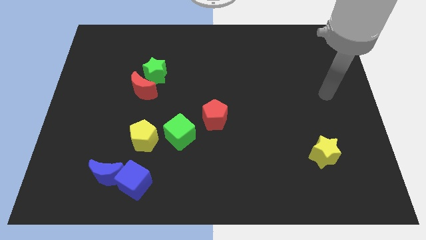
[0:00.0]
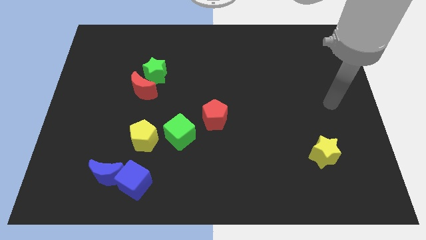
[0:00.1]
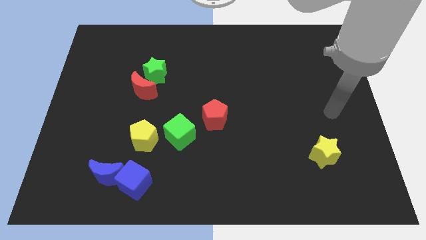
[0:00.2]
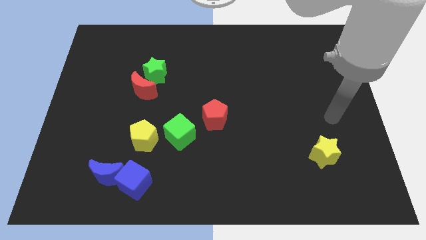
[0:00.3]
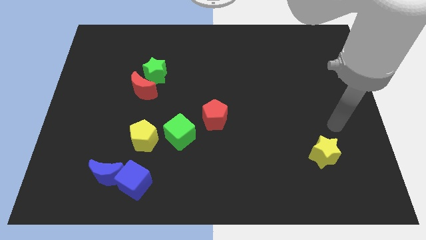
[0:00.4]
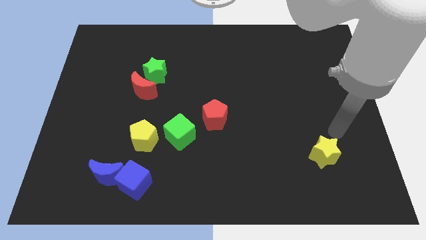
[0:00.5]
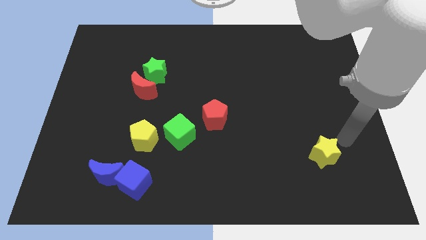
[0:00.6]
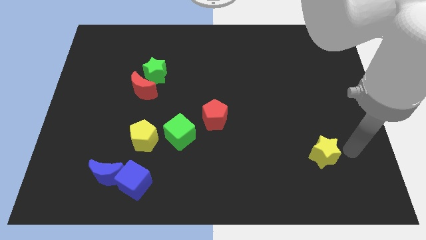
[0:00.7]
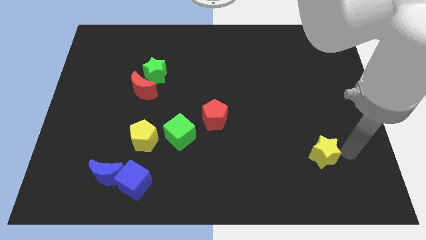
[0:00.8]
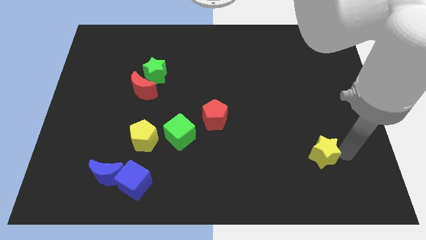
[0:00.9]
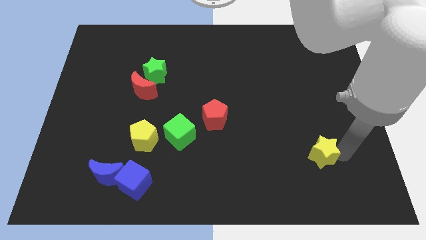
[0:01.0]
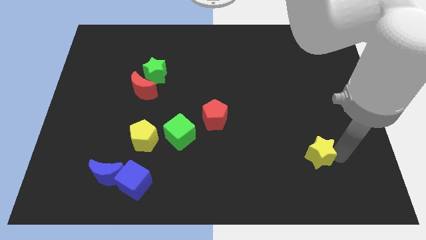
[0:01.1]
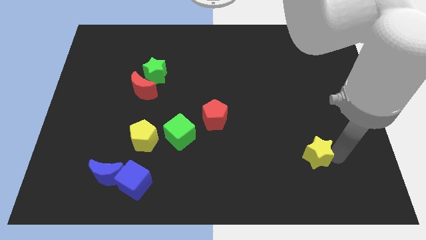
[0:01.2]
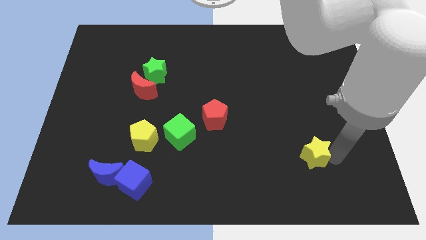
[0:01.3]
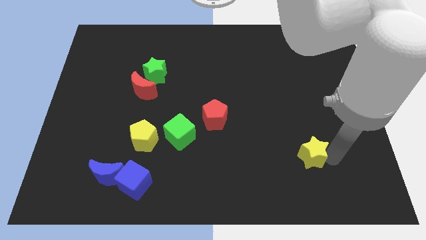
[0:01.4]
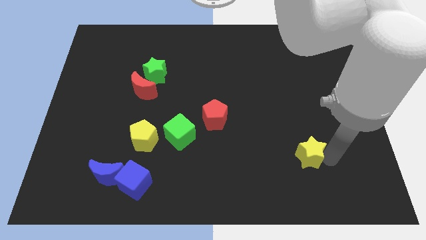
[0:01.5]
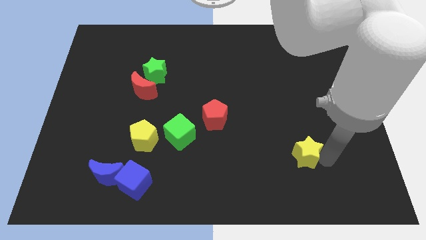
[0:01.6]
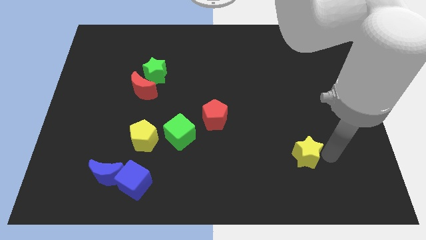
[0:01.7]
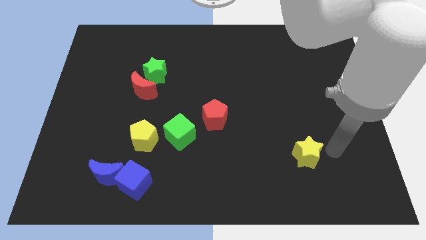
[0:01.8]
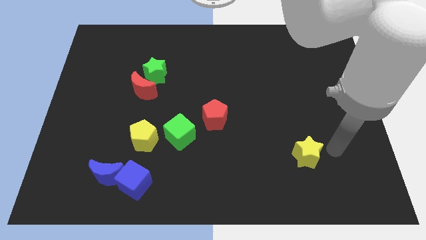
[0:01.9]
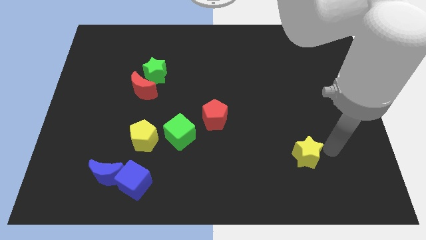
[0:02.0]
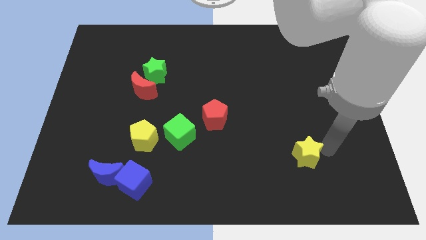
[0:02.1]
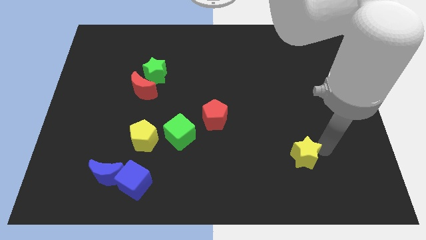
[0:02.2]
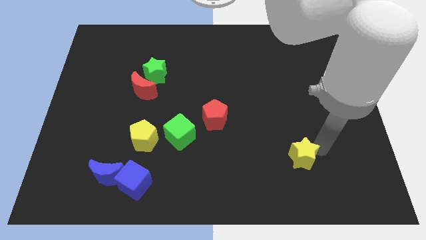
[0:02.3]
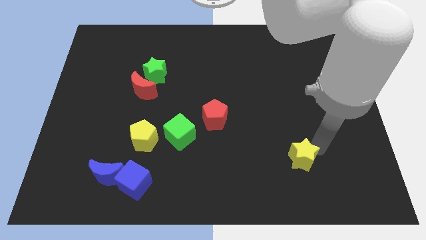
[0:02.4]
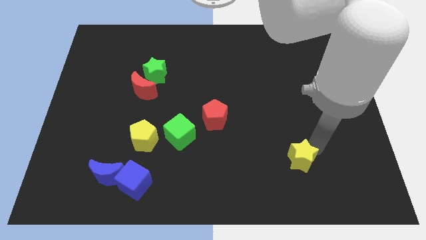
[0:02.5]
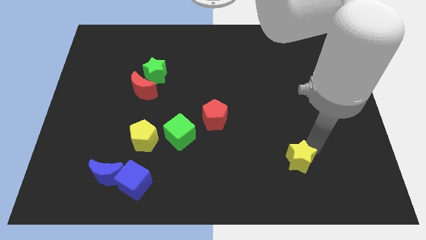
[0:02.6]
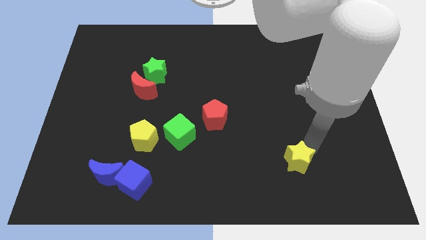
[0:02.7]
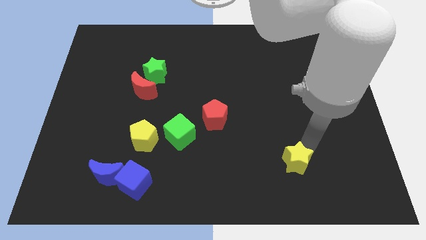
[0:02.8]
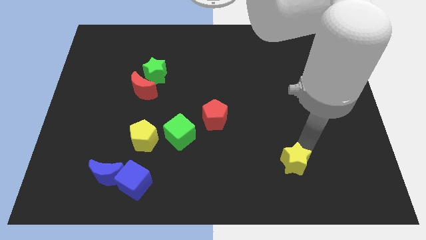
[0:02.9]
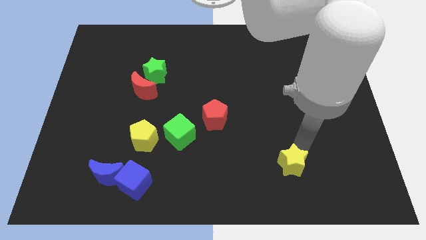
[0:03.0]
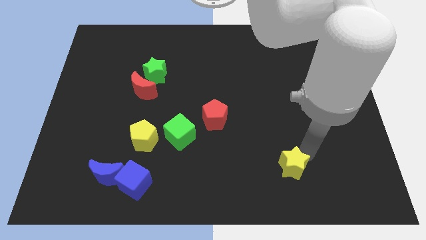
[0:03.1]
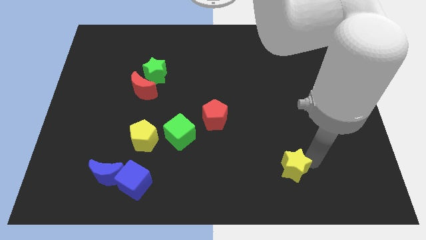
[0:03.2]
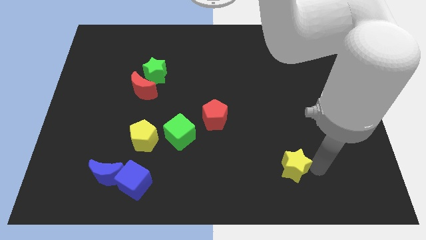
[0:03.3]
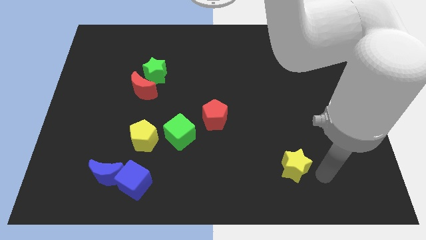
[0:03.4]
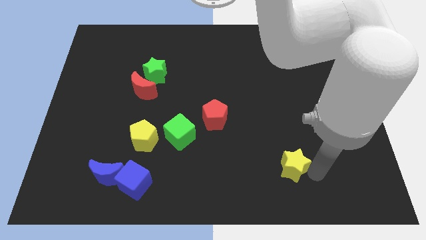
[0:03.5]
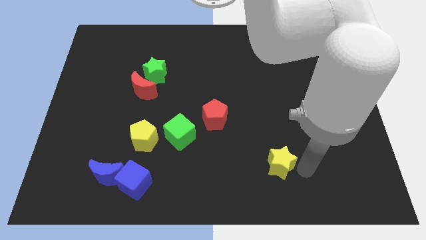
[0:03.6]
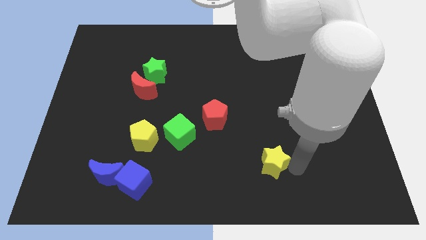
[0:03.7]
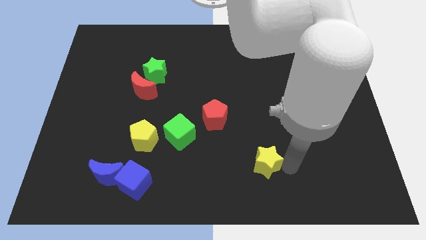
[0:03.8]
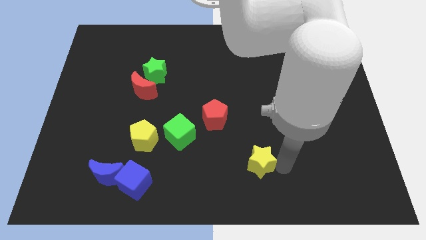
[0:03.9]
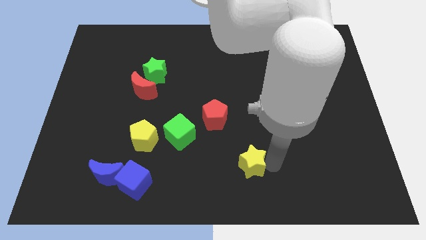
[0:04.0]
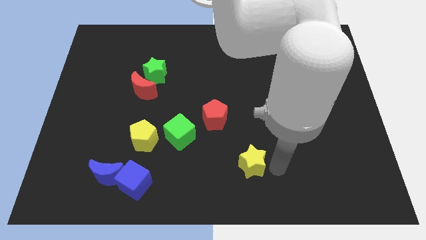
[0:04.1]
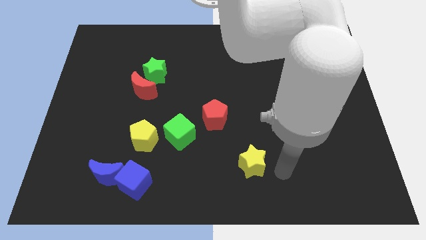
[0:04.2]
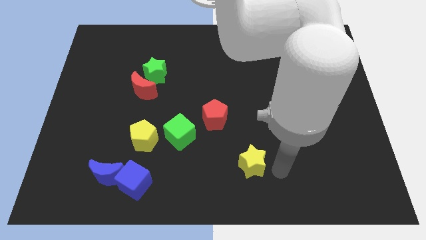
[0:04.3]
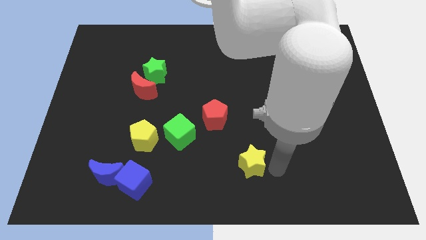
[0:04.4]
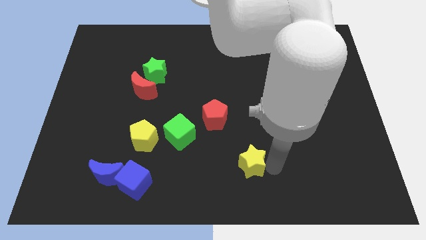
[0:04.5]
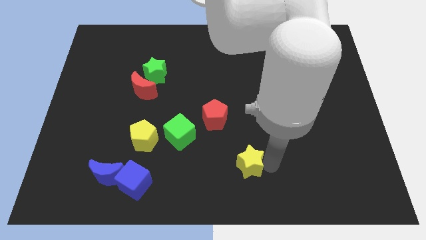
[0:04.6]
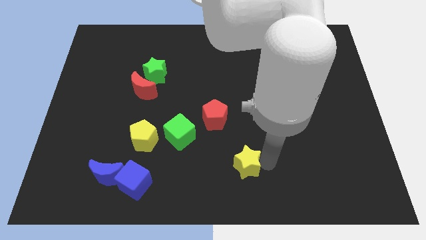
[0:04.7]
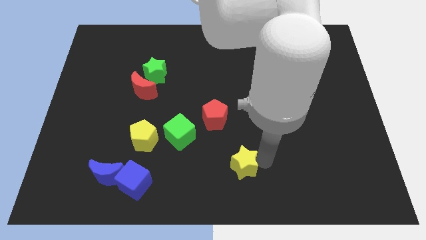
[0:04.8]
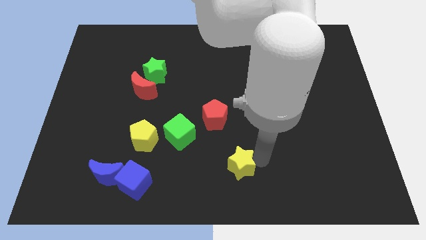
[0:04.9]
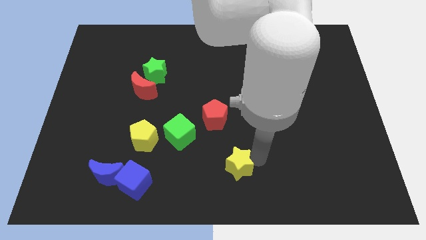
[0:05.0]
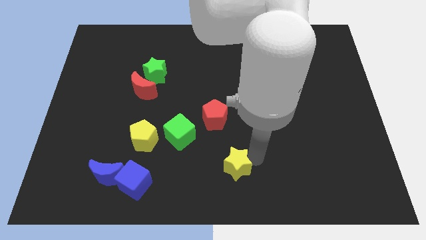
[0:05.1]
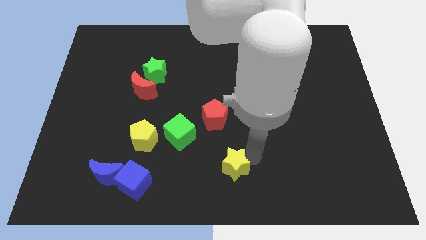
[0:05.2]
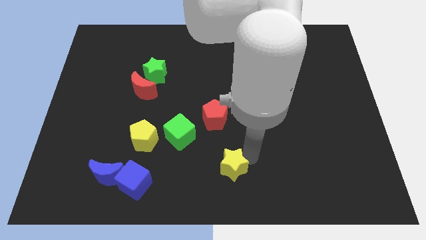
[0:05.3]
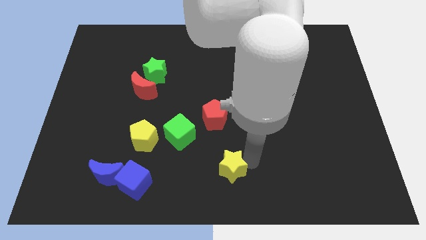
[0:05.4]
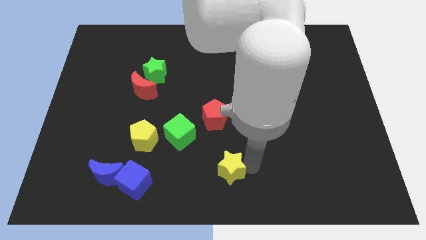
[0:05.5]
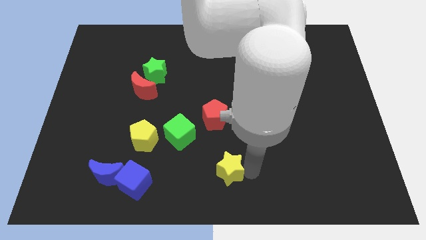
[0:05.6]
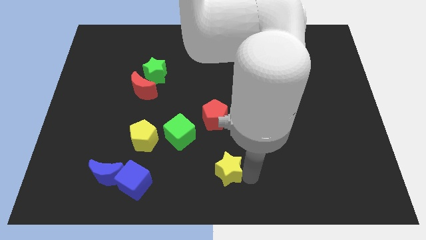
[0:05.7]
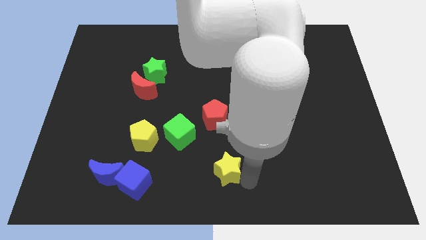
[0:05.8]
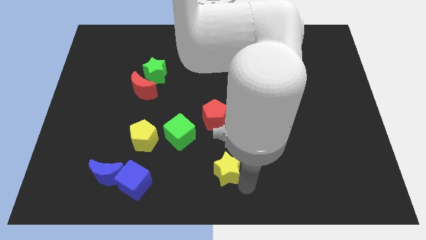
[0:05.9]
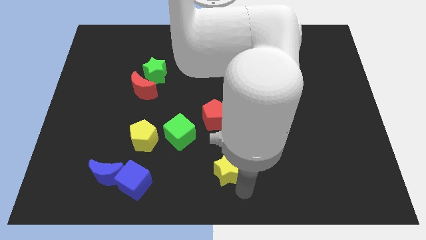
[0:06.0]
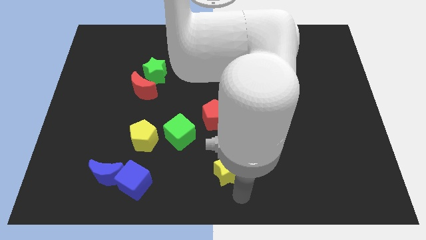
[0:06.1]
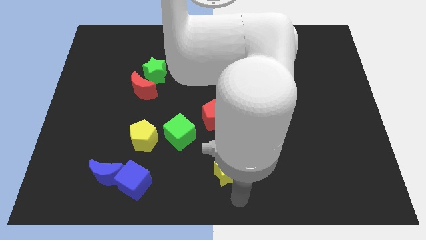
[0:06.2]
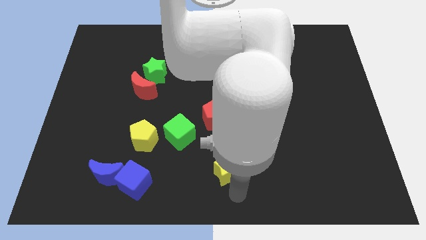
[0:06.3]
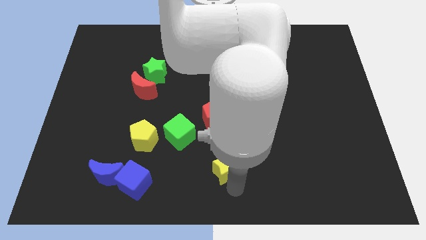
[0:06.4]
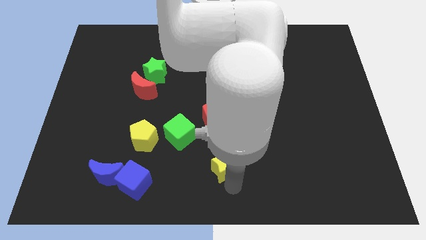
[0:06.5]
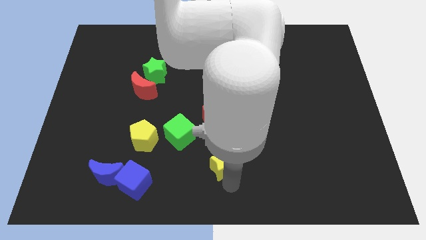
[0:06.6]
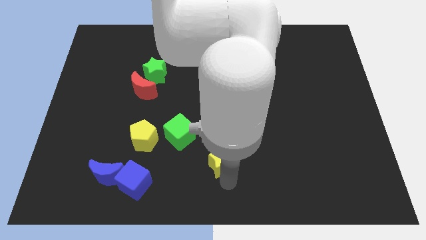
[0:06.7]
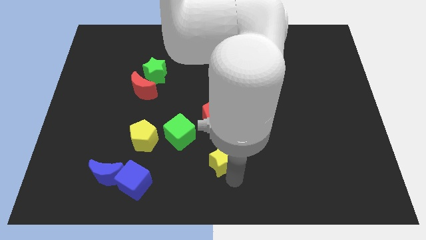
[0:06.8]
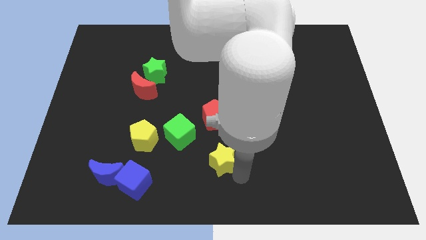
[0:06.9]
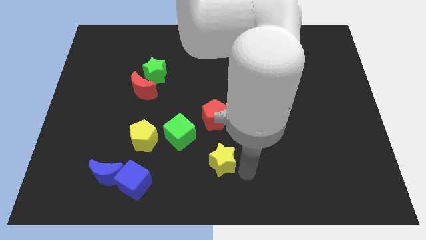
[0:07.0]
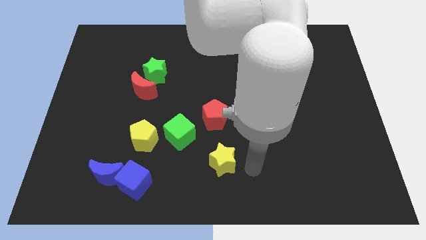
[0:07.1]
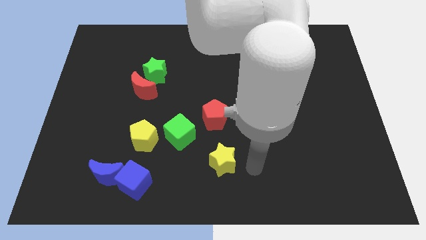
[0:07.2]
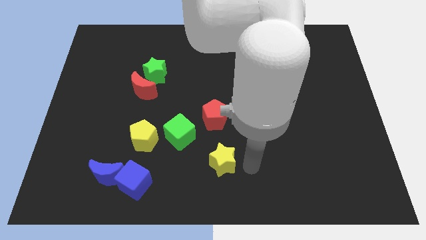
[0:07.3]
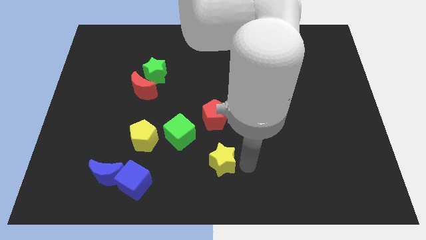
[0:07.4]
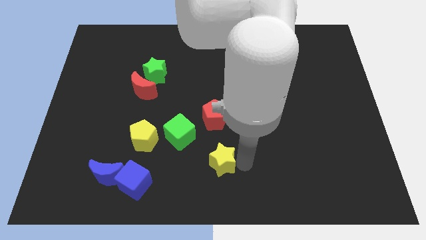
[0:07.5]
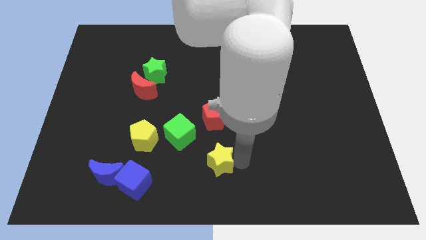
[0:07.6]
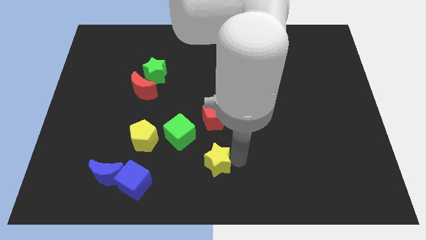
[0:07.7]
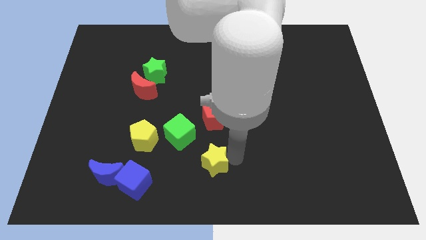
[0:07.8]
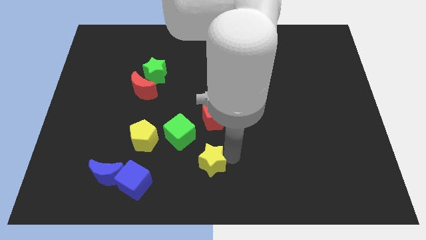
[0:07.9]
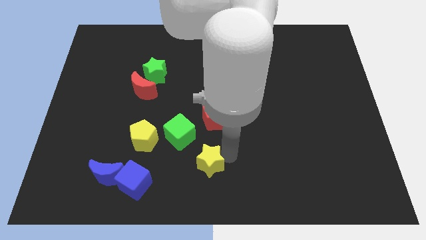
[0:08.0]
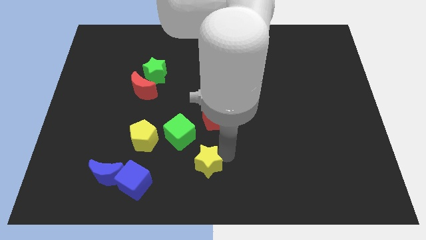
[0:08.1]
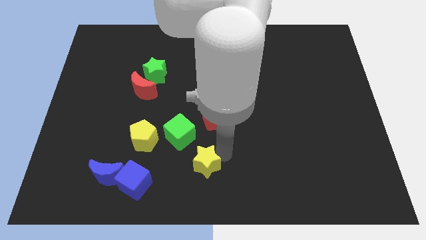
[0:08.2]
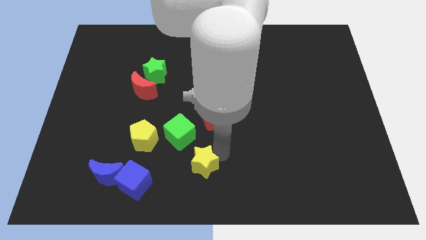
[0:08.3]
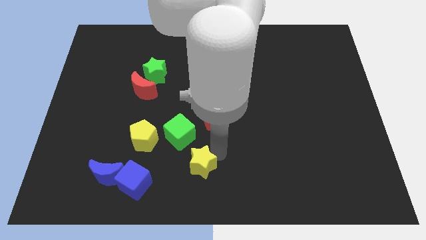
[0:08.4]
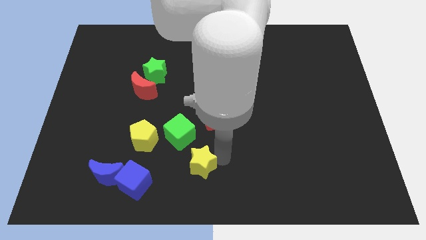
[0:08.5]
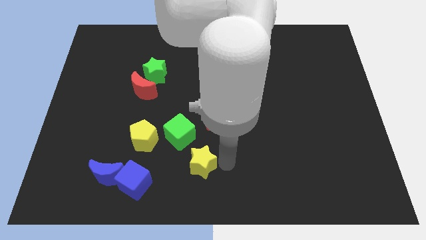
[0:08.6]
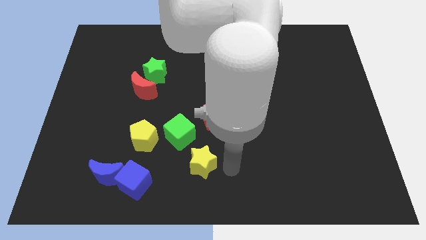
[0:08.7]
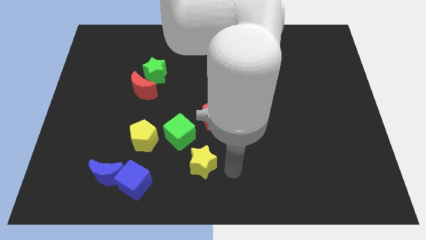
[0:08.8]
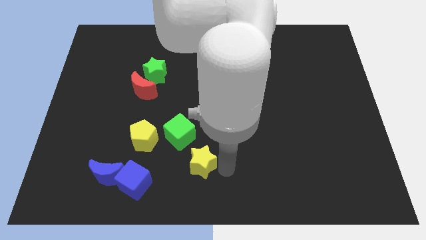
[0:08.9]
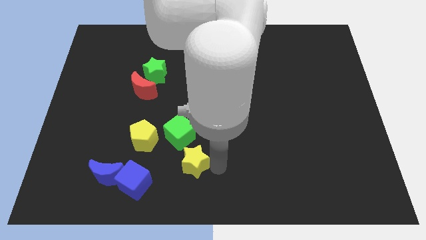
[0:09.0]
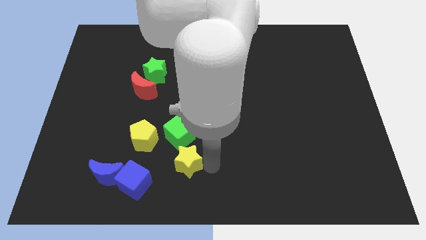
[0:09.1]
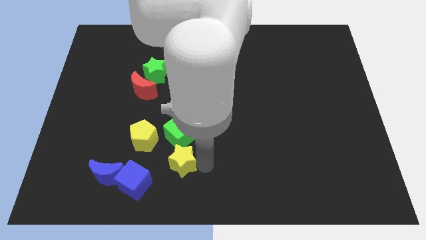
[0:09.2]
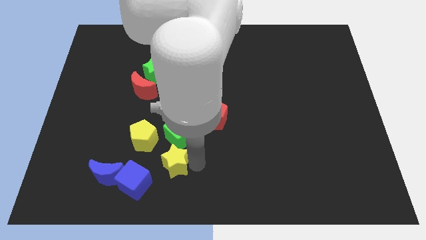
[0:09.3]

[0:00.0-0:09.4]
slide the yellow star diagonally down and to the left of the green cube
